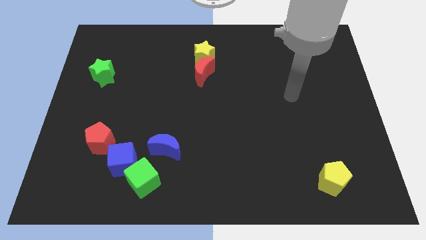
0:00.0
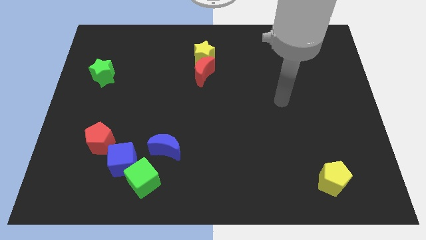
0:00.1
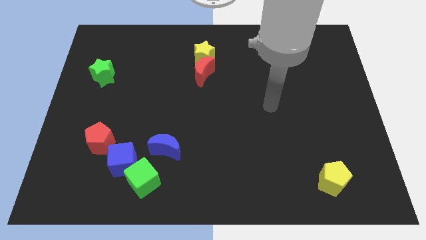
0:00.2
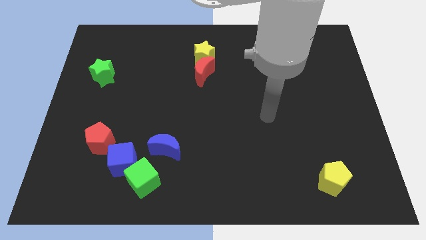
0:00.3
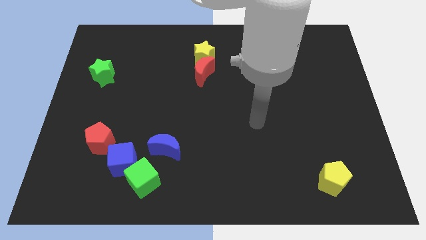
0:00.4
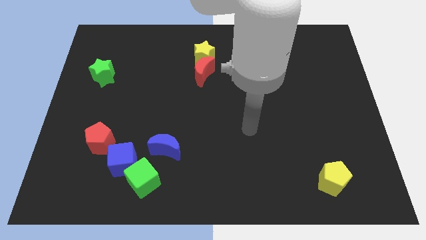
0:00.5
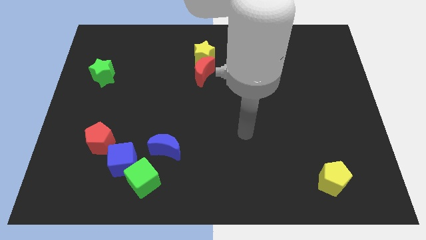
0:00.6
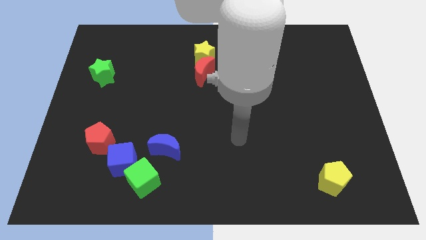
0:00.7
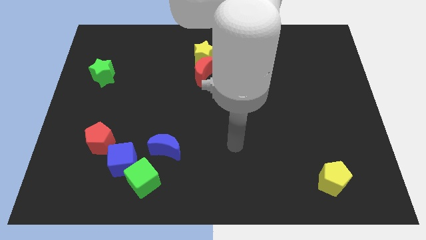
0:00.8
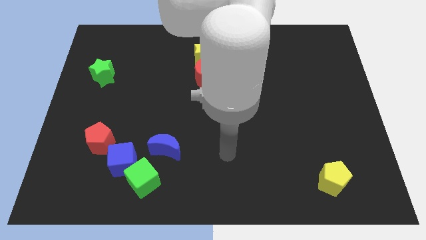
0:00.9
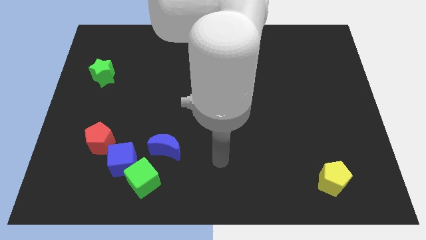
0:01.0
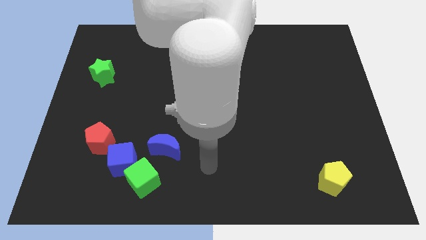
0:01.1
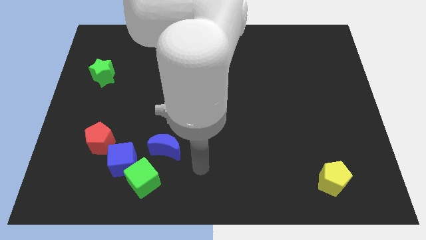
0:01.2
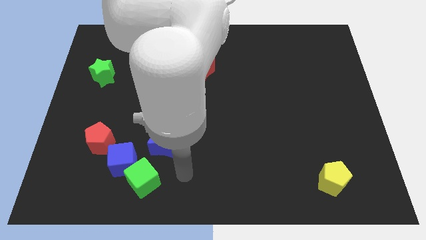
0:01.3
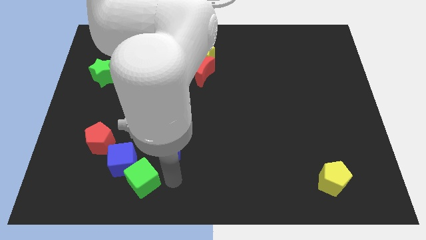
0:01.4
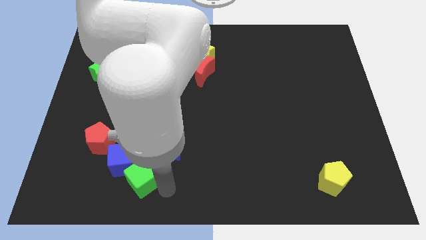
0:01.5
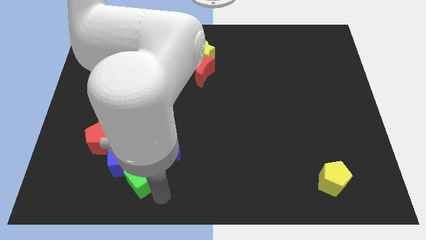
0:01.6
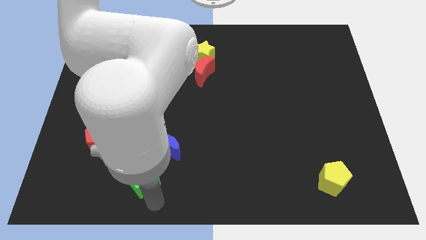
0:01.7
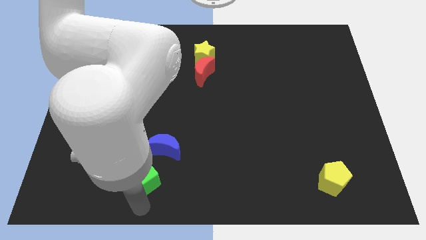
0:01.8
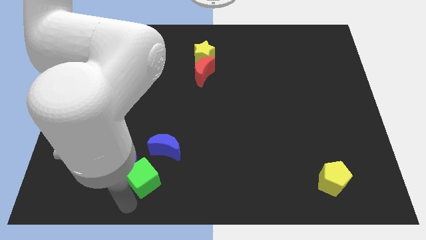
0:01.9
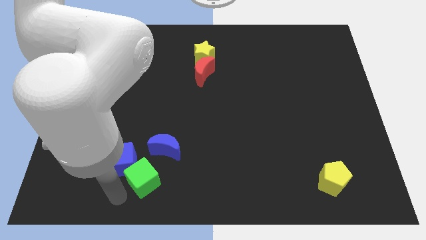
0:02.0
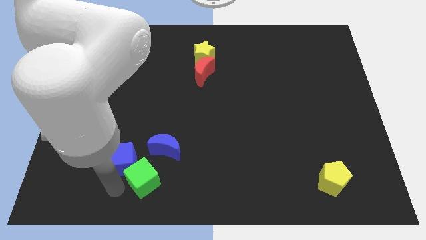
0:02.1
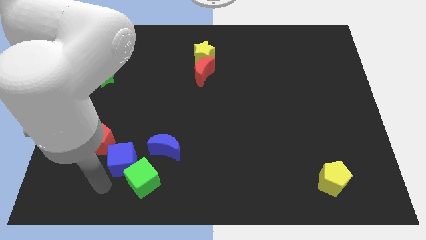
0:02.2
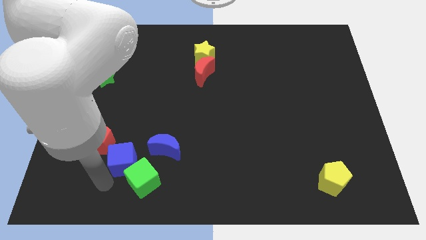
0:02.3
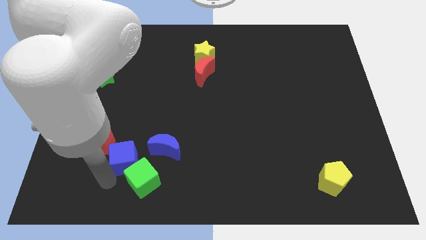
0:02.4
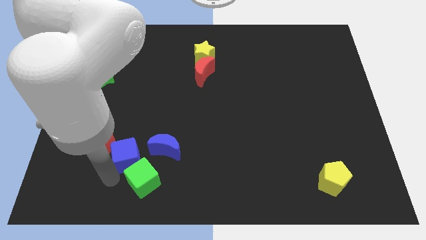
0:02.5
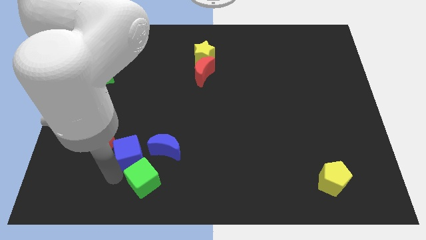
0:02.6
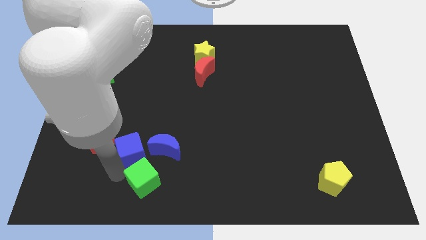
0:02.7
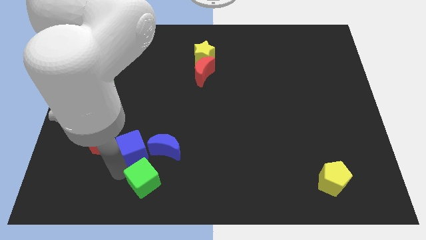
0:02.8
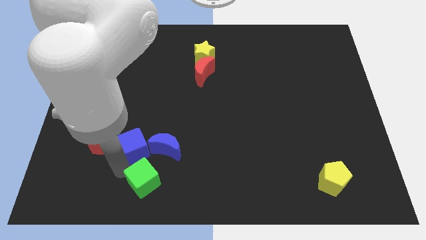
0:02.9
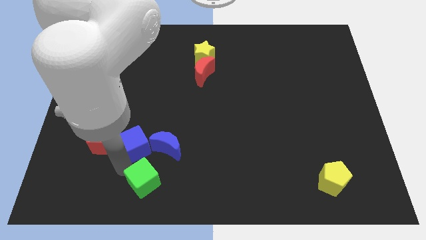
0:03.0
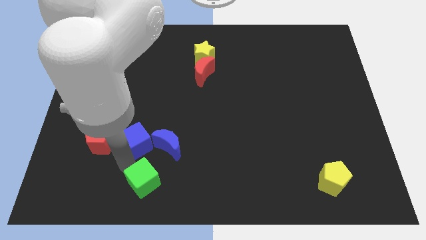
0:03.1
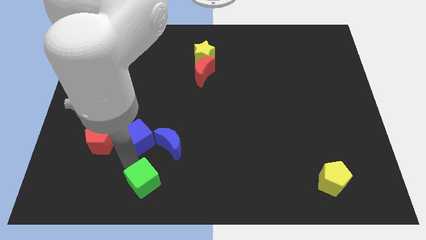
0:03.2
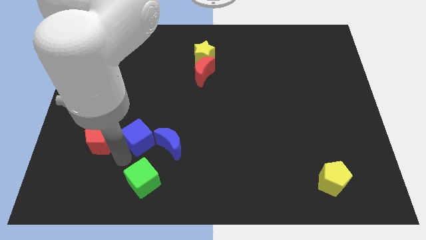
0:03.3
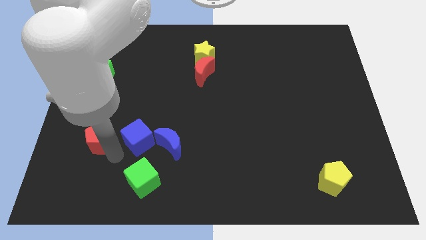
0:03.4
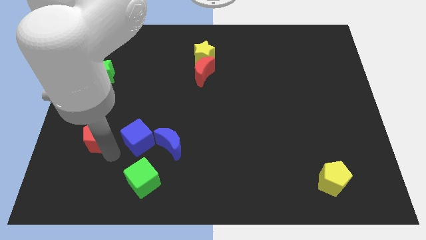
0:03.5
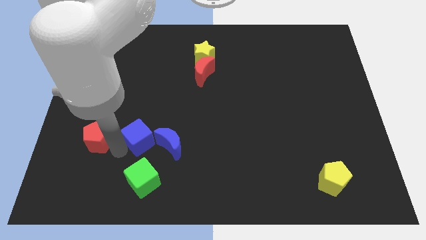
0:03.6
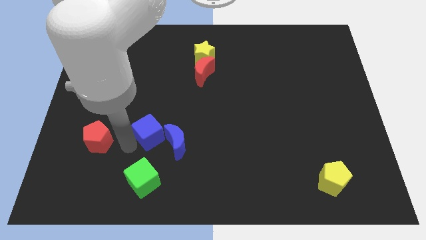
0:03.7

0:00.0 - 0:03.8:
slightly push the blue cube diagonally up and to the right

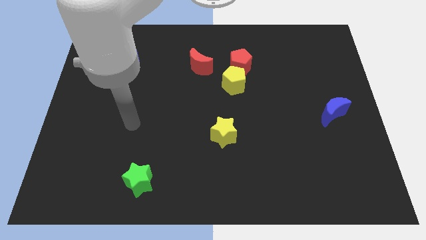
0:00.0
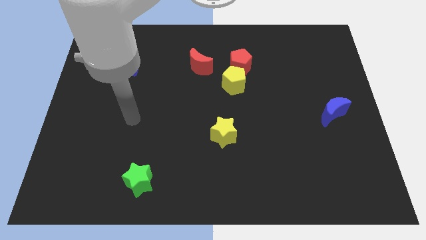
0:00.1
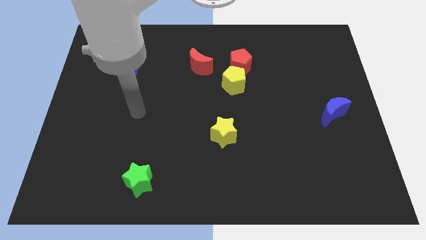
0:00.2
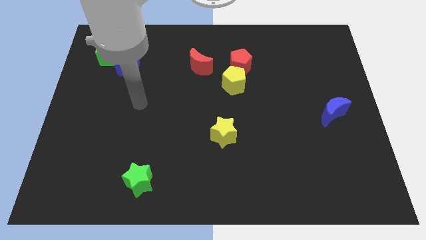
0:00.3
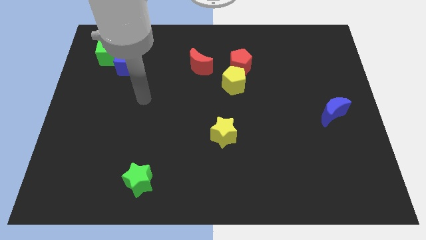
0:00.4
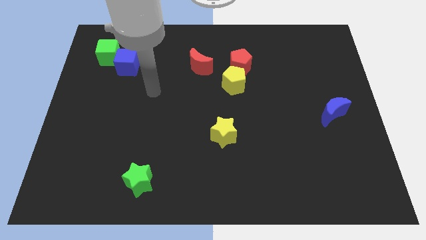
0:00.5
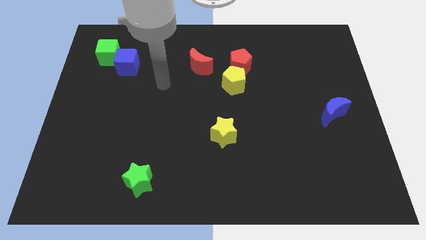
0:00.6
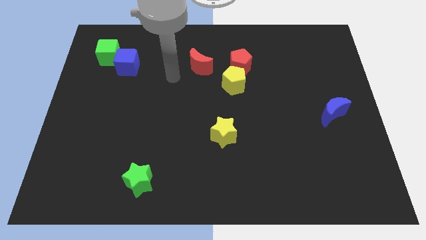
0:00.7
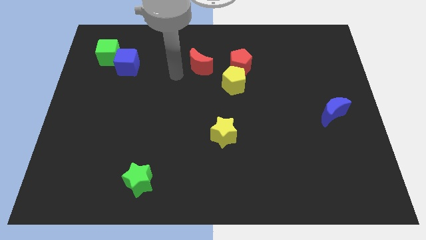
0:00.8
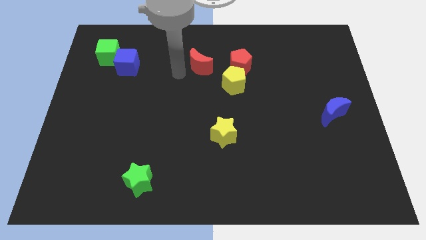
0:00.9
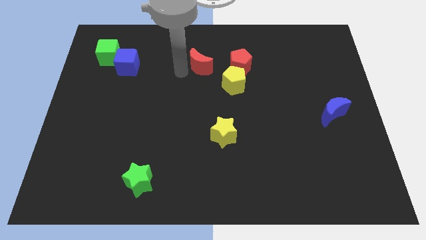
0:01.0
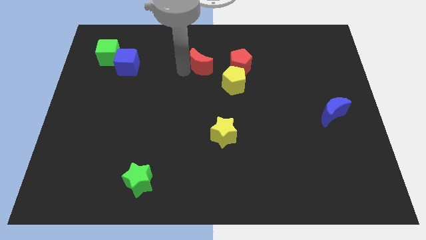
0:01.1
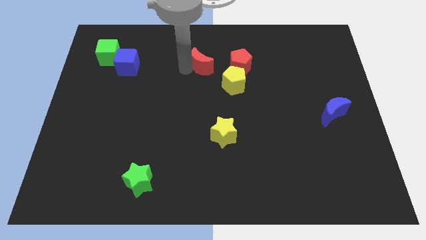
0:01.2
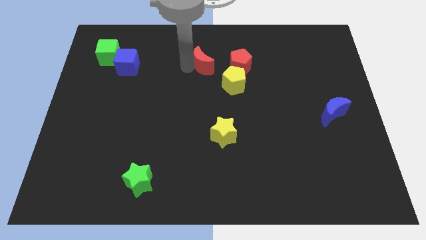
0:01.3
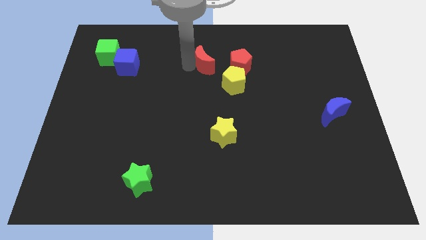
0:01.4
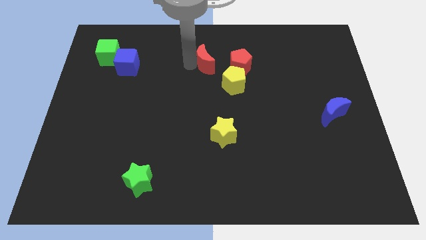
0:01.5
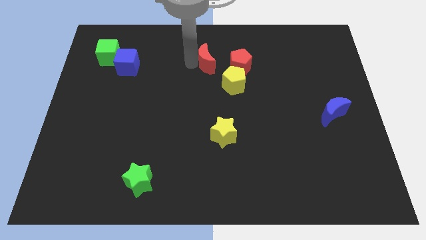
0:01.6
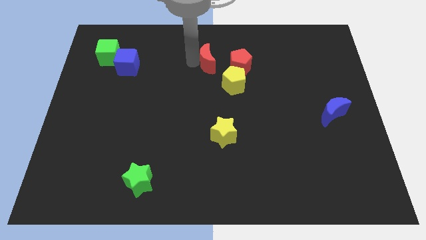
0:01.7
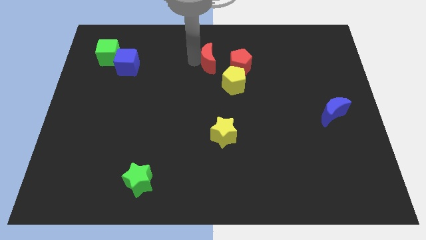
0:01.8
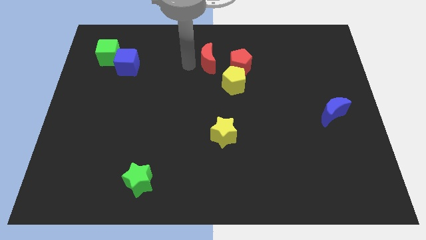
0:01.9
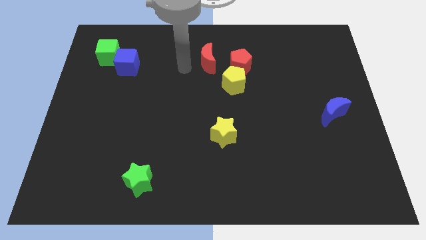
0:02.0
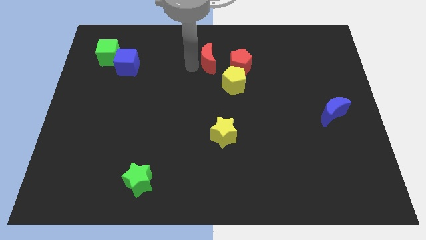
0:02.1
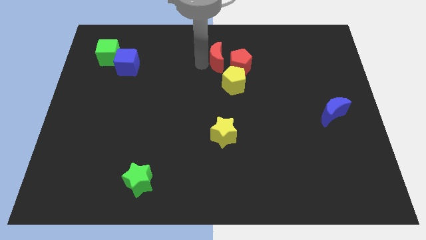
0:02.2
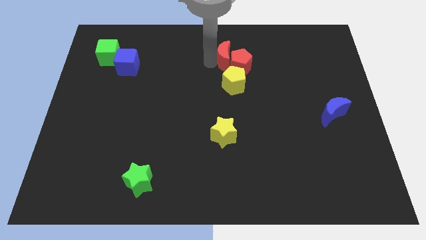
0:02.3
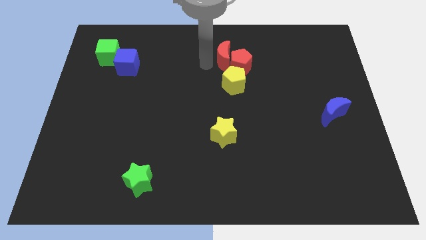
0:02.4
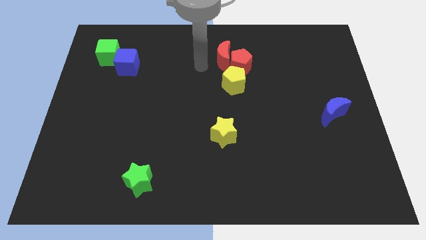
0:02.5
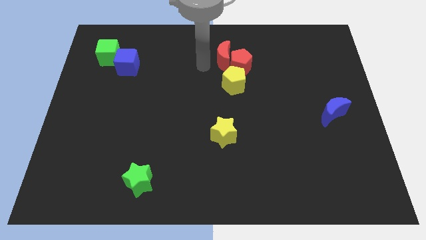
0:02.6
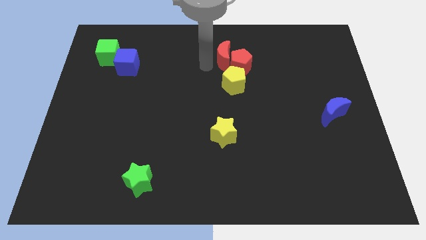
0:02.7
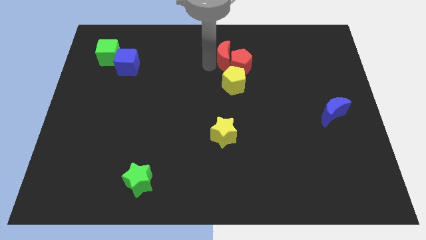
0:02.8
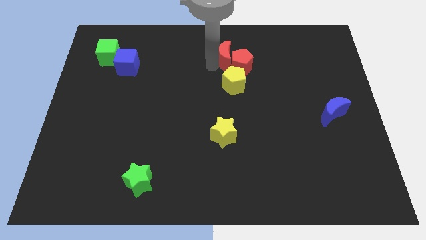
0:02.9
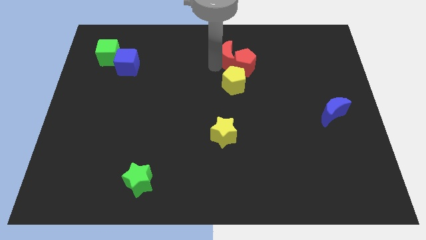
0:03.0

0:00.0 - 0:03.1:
slide the red moon to the right a little bit

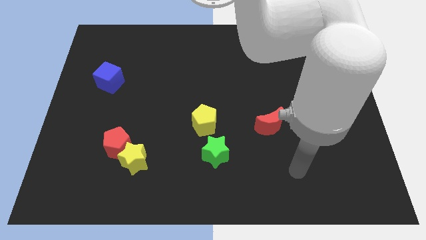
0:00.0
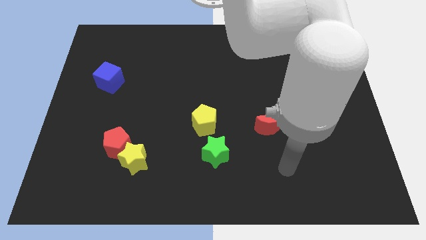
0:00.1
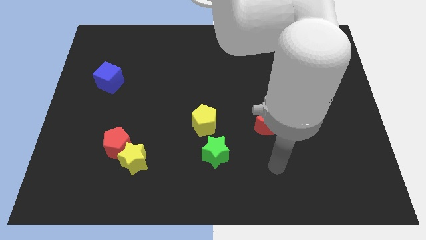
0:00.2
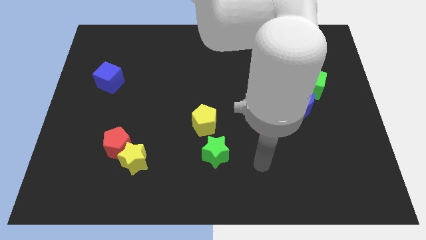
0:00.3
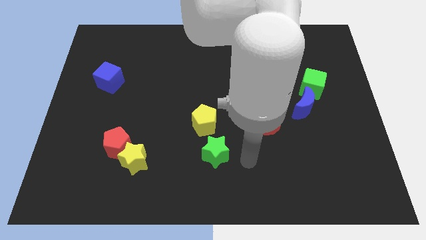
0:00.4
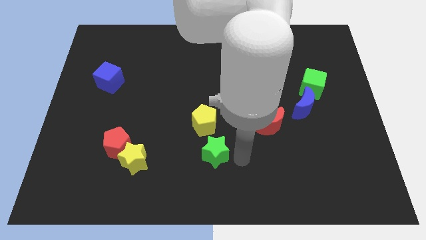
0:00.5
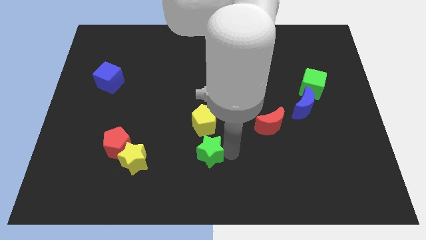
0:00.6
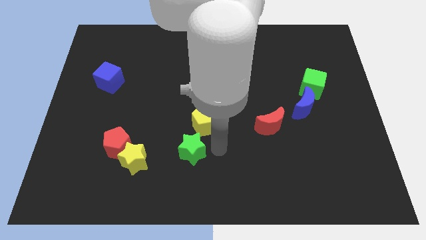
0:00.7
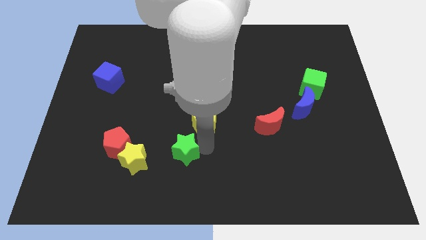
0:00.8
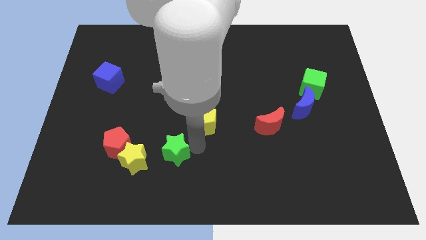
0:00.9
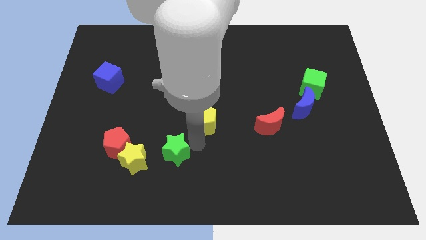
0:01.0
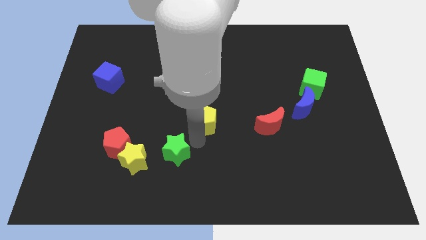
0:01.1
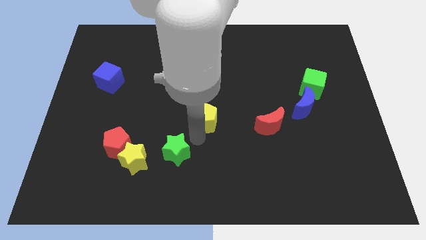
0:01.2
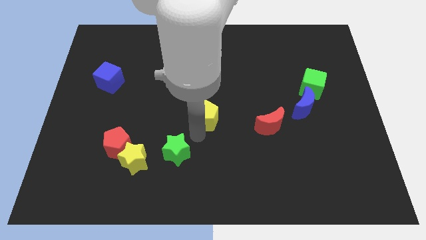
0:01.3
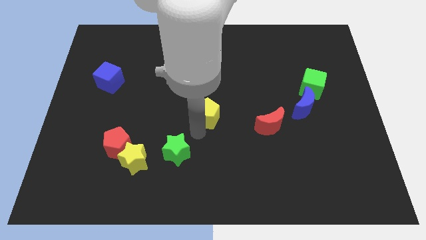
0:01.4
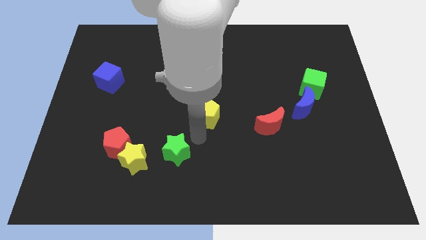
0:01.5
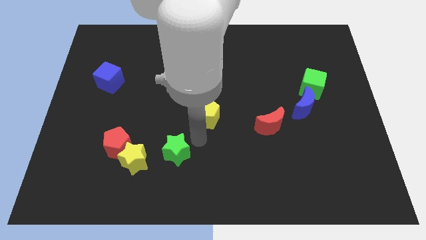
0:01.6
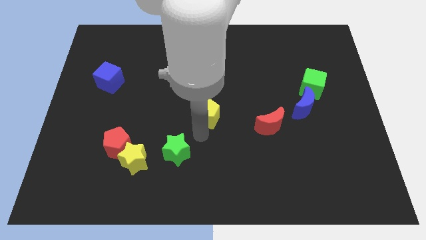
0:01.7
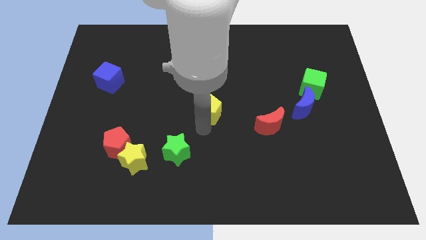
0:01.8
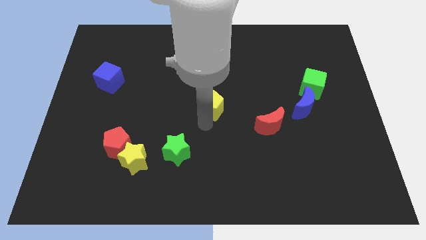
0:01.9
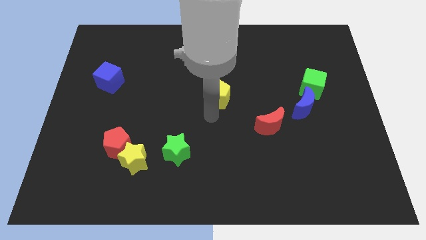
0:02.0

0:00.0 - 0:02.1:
slightly slide the yellow pentagon upwards
